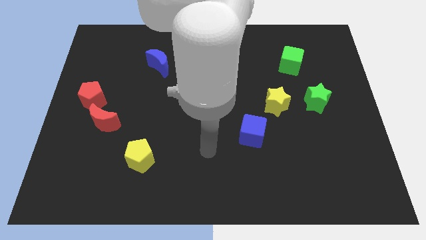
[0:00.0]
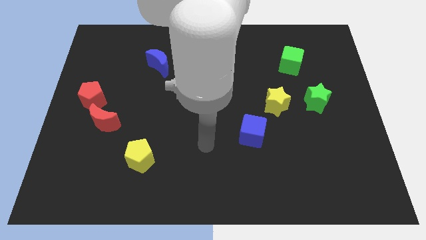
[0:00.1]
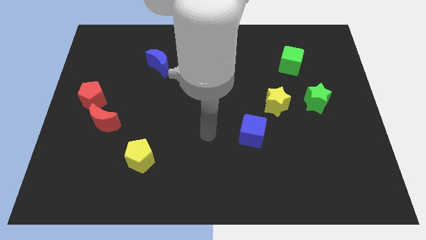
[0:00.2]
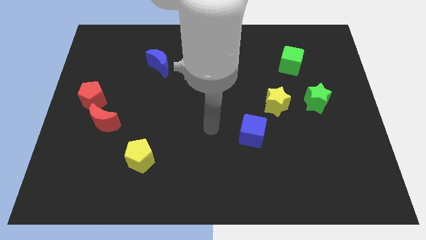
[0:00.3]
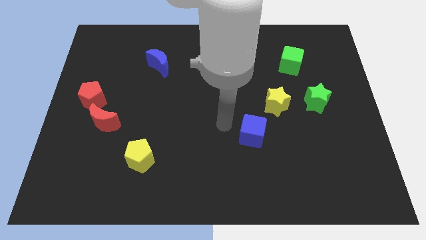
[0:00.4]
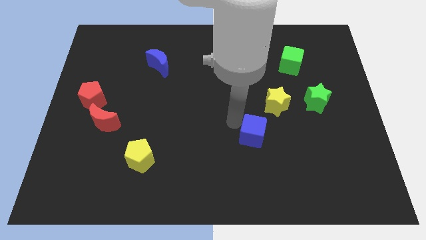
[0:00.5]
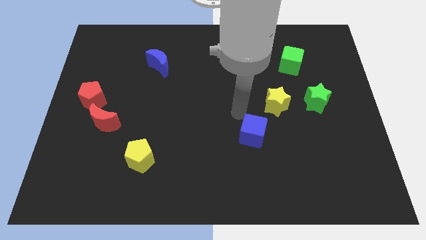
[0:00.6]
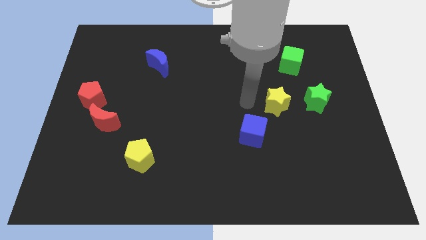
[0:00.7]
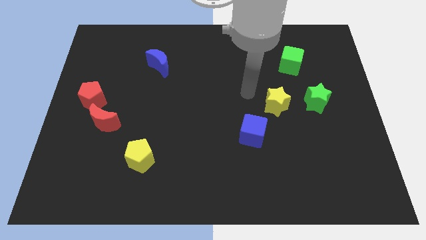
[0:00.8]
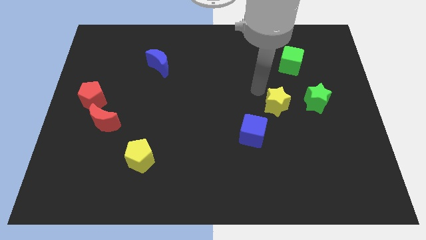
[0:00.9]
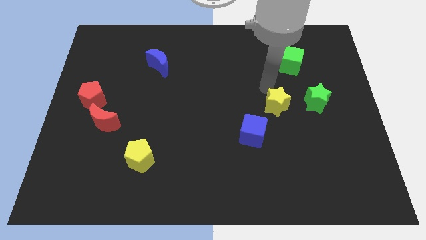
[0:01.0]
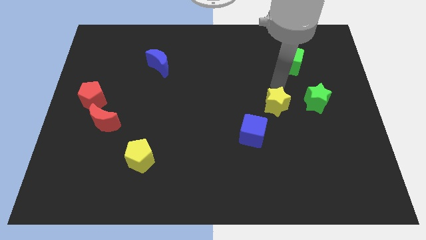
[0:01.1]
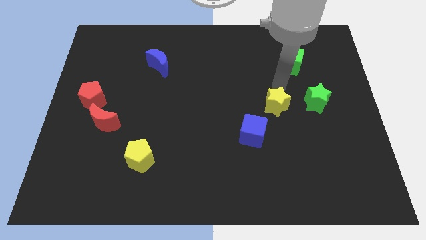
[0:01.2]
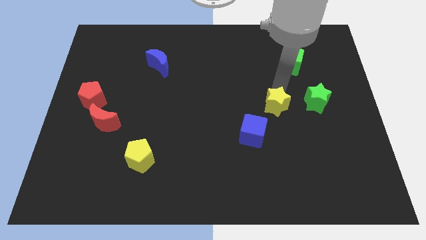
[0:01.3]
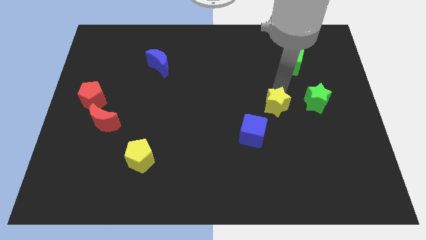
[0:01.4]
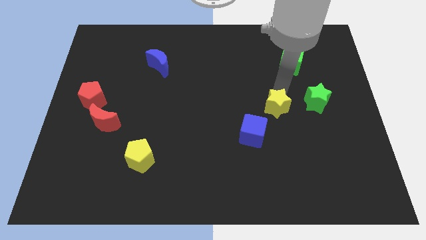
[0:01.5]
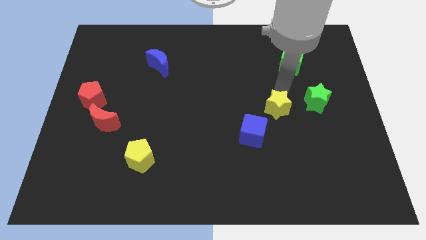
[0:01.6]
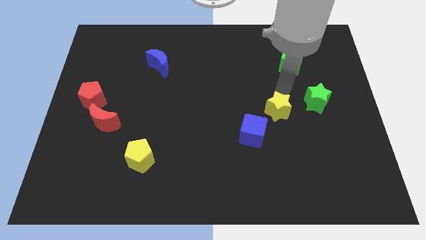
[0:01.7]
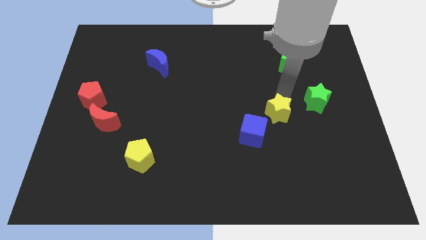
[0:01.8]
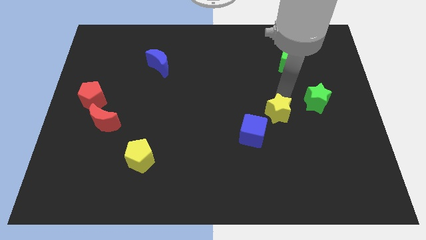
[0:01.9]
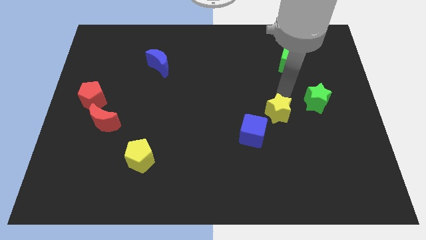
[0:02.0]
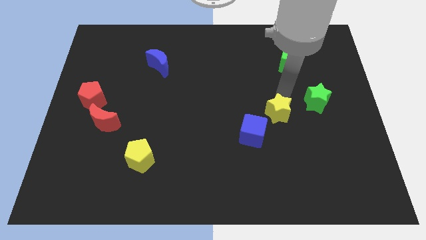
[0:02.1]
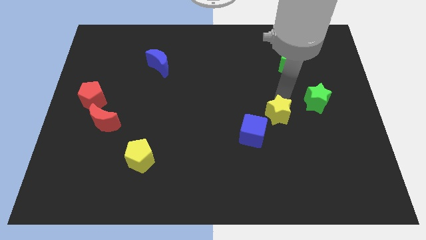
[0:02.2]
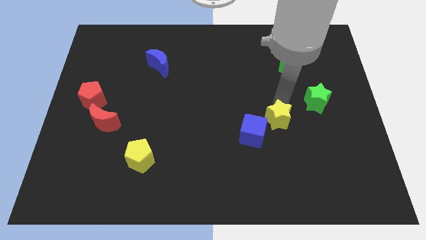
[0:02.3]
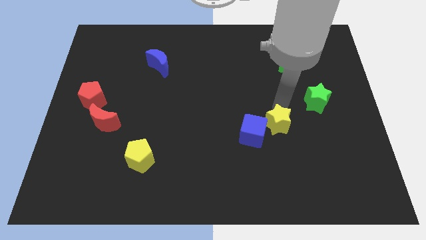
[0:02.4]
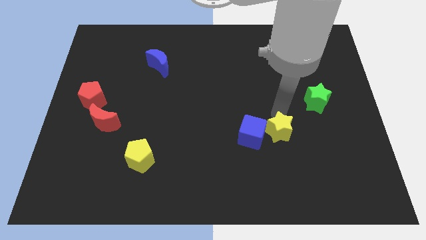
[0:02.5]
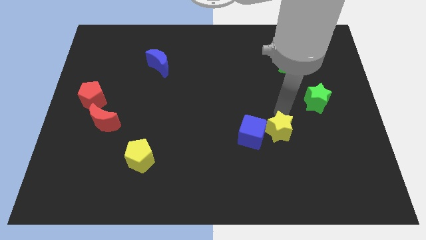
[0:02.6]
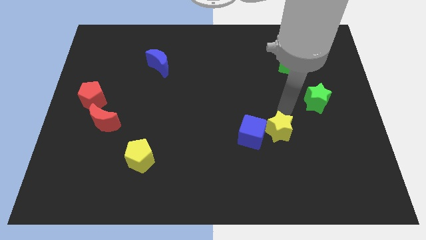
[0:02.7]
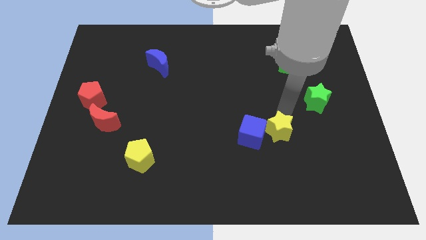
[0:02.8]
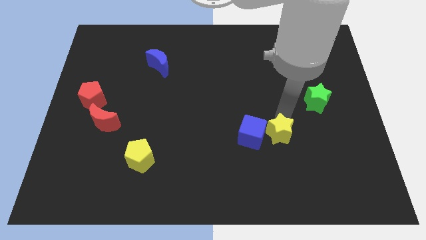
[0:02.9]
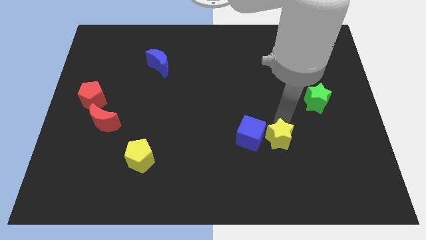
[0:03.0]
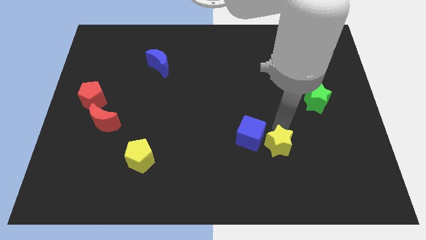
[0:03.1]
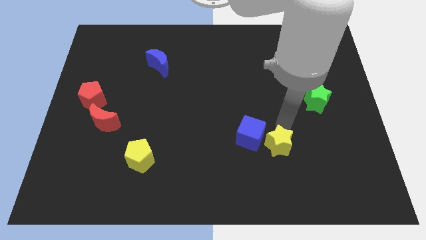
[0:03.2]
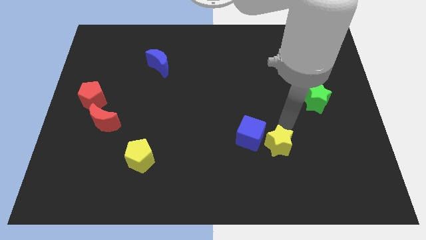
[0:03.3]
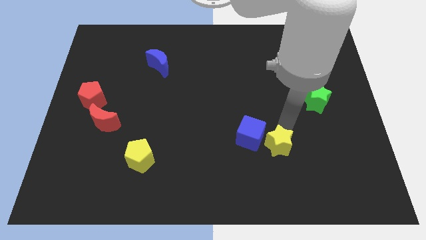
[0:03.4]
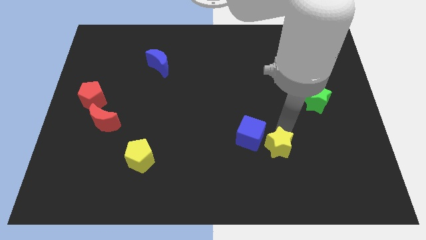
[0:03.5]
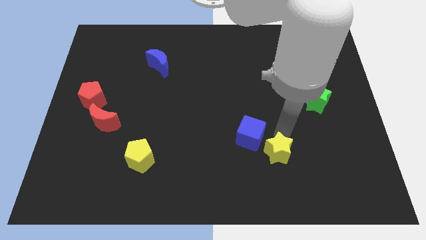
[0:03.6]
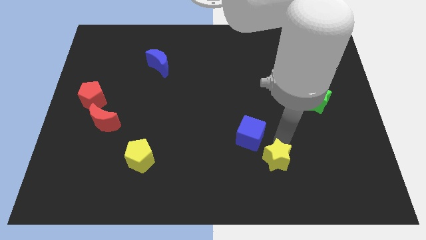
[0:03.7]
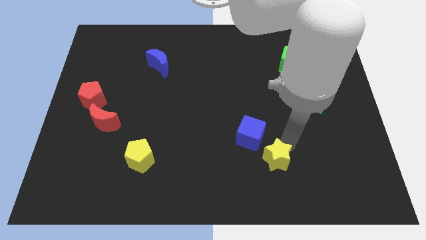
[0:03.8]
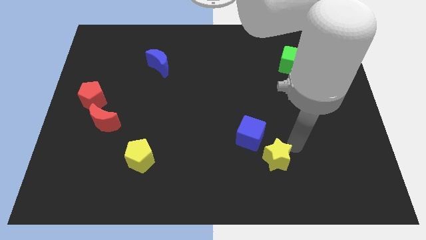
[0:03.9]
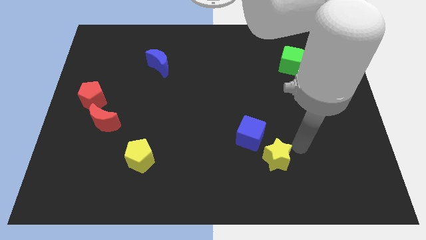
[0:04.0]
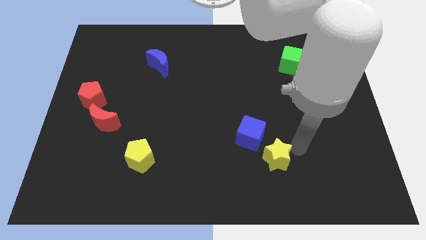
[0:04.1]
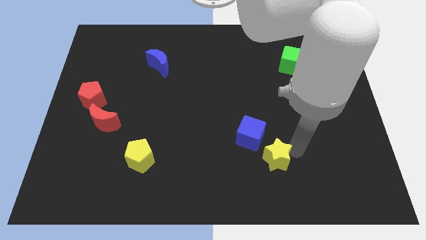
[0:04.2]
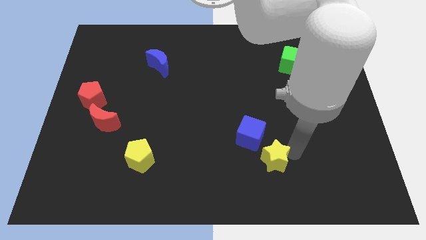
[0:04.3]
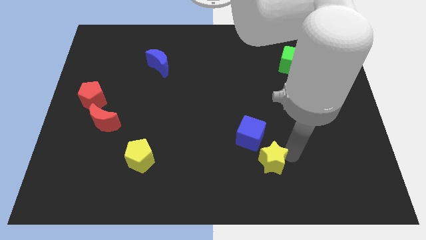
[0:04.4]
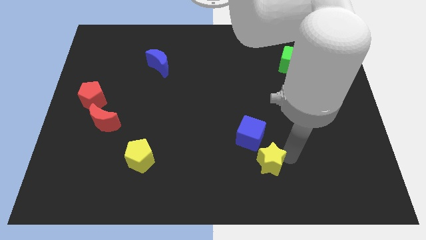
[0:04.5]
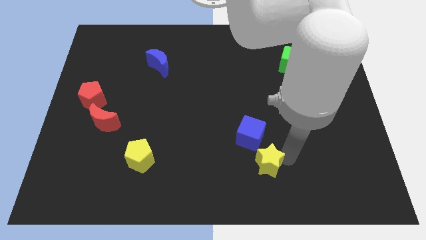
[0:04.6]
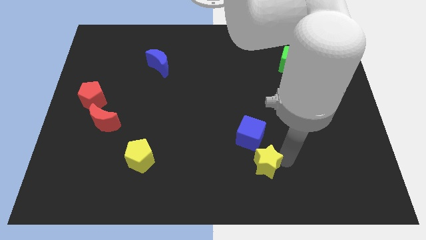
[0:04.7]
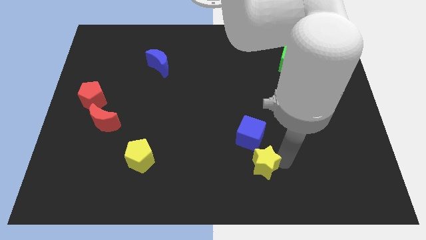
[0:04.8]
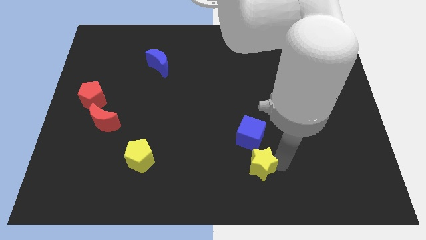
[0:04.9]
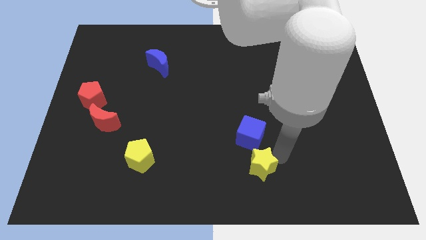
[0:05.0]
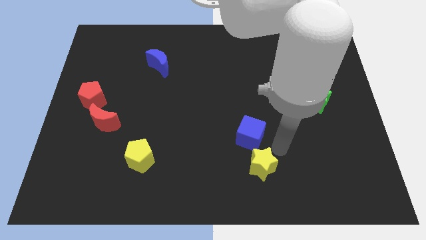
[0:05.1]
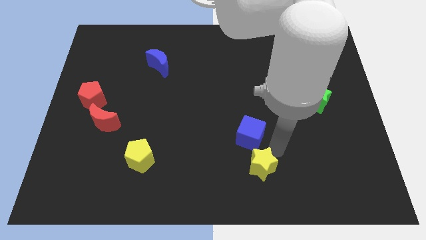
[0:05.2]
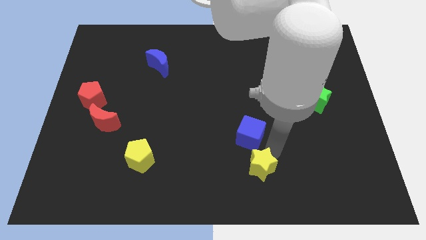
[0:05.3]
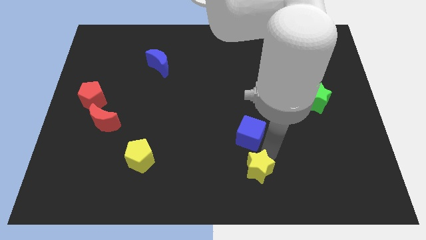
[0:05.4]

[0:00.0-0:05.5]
move the yellow star to the bottom side
